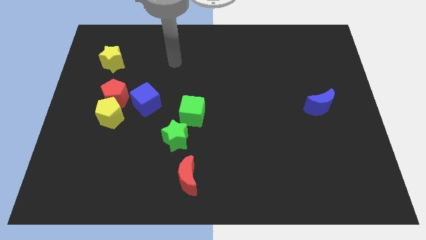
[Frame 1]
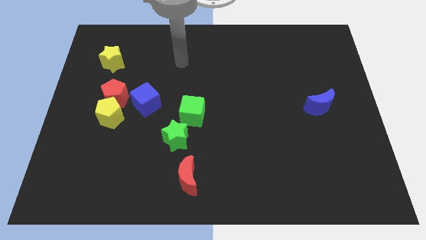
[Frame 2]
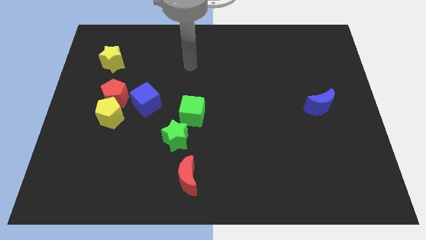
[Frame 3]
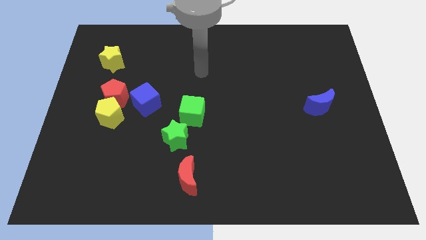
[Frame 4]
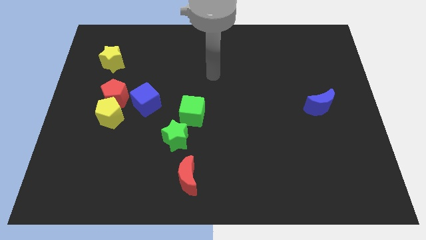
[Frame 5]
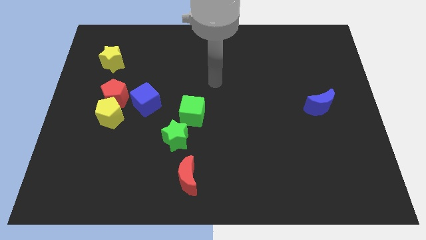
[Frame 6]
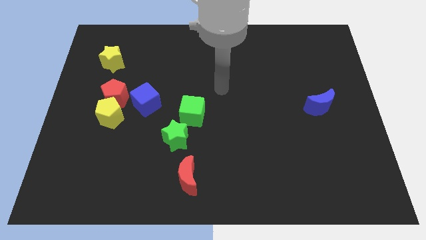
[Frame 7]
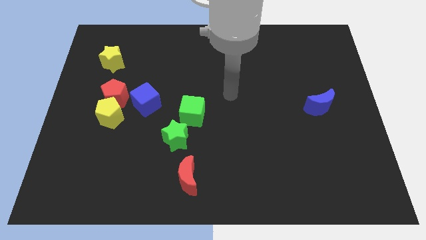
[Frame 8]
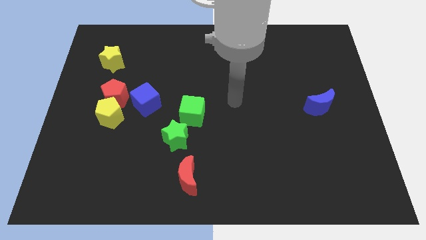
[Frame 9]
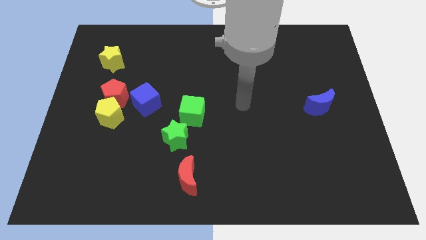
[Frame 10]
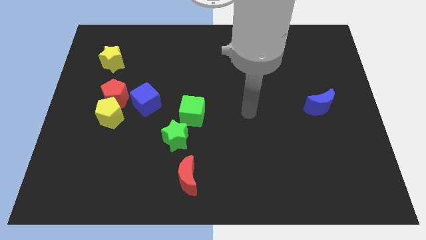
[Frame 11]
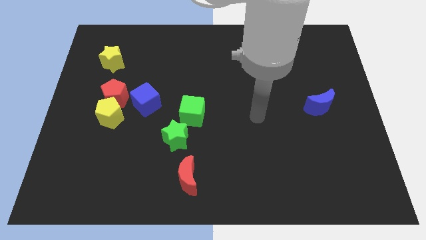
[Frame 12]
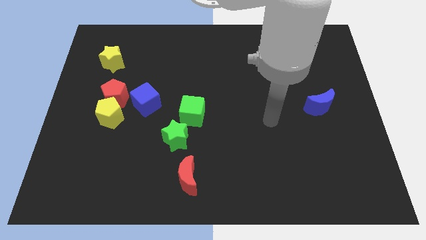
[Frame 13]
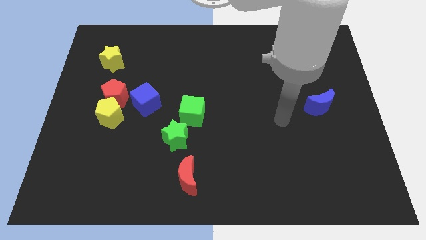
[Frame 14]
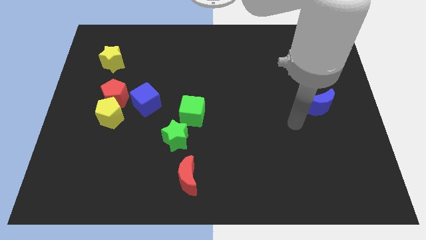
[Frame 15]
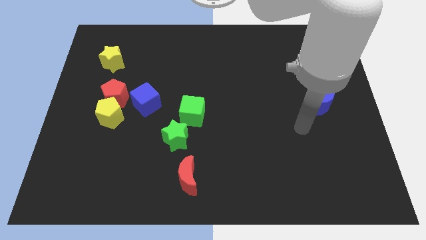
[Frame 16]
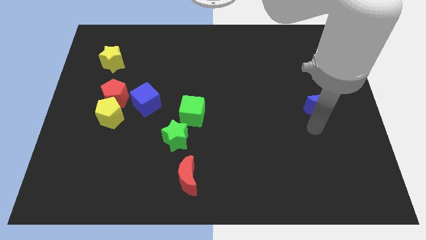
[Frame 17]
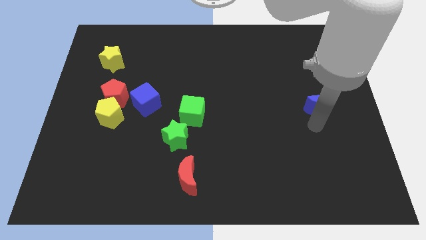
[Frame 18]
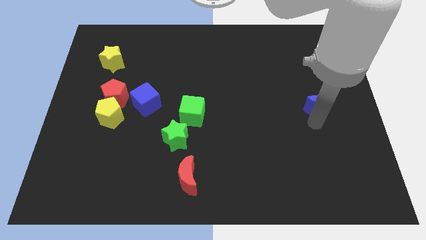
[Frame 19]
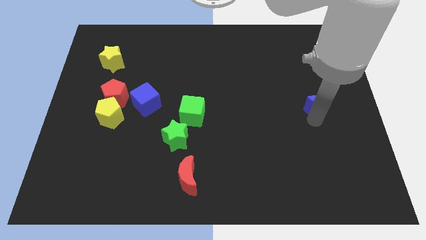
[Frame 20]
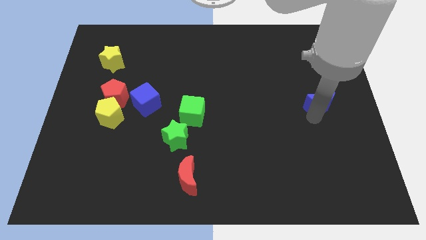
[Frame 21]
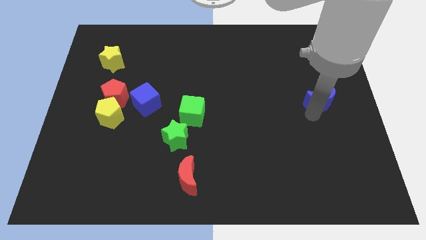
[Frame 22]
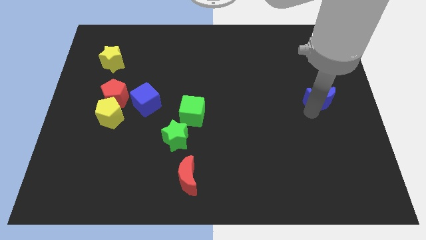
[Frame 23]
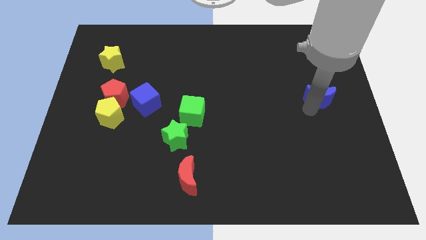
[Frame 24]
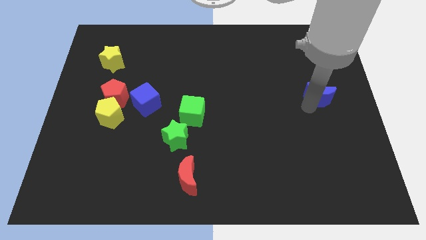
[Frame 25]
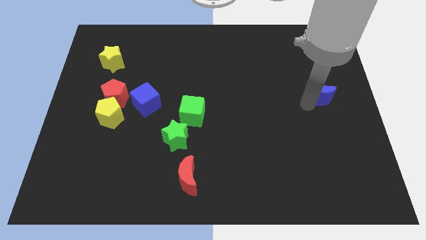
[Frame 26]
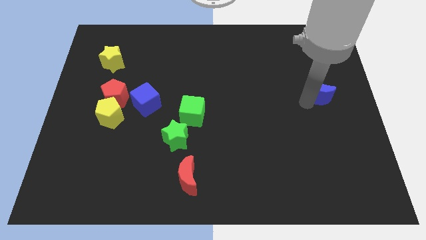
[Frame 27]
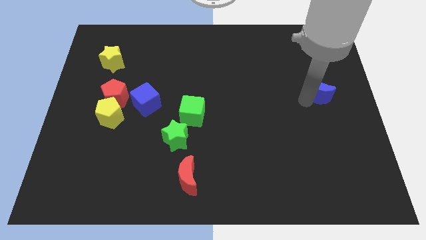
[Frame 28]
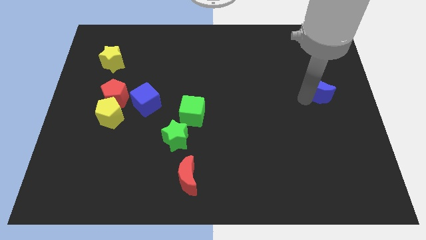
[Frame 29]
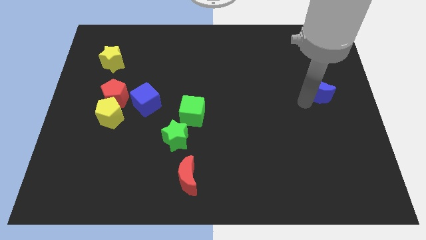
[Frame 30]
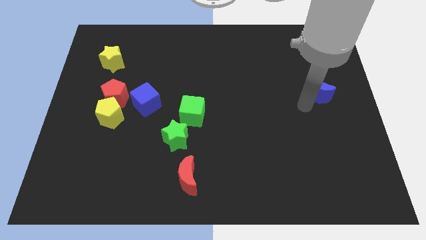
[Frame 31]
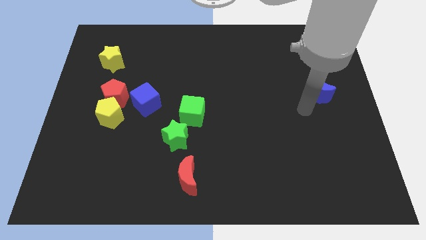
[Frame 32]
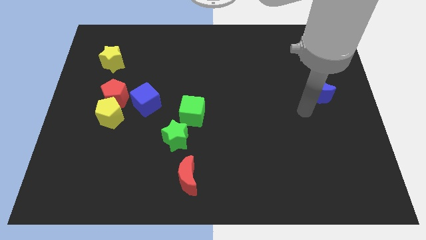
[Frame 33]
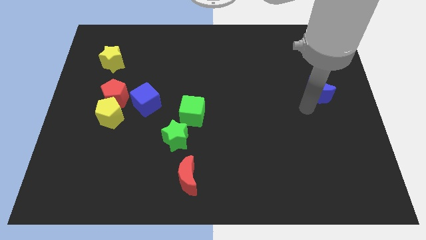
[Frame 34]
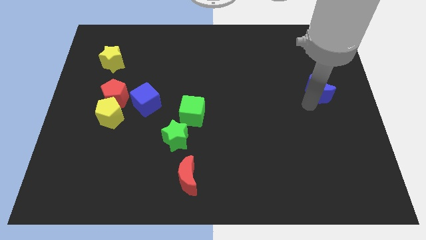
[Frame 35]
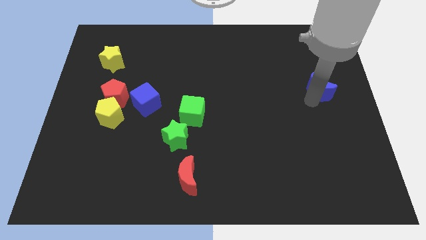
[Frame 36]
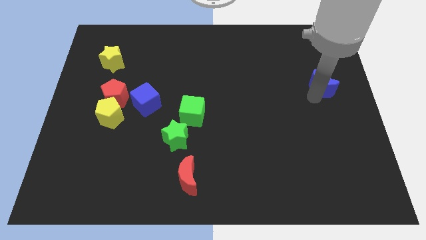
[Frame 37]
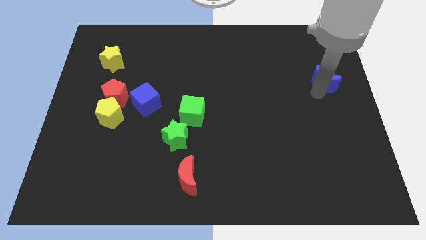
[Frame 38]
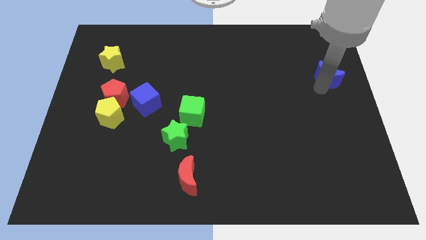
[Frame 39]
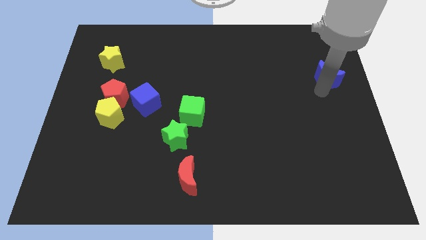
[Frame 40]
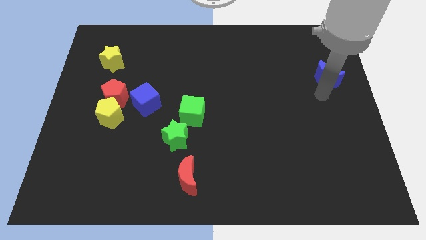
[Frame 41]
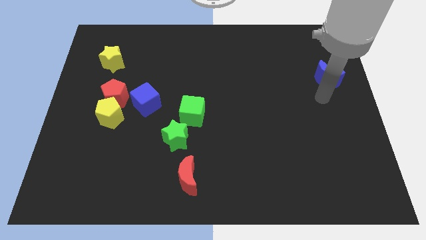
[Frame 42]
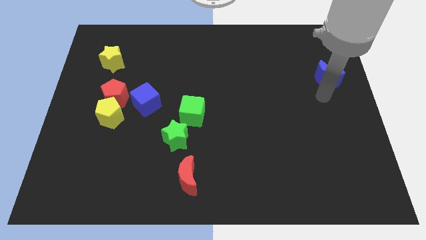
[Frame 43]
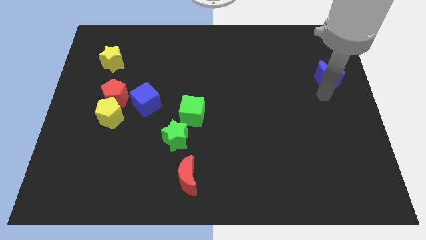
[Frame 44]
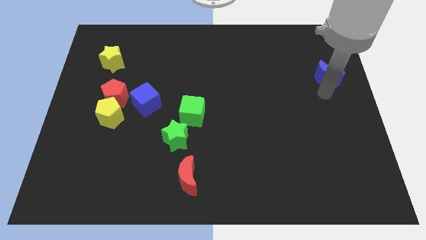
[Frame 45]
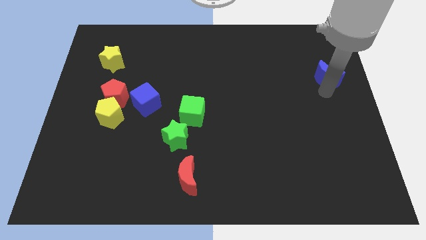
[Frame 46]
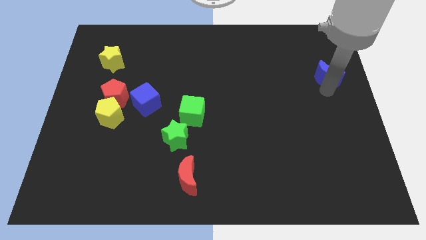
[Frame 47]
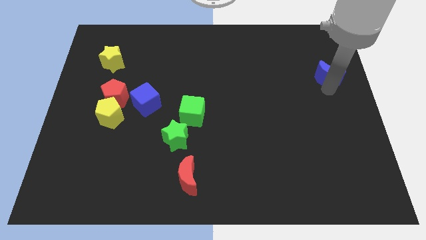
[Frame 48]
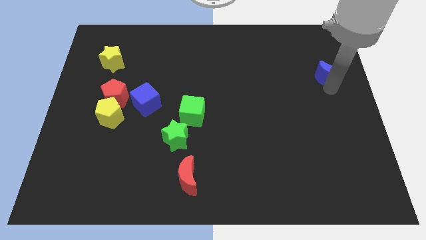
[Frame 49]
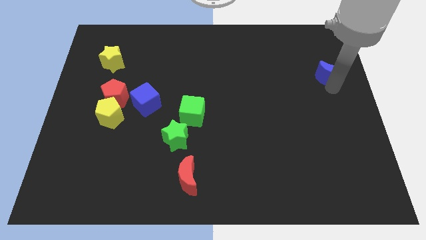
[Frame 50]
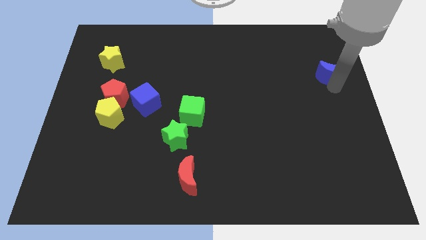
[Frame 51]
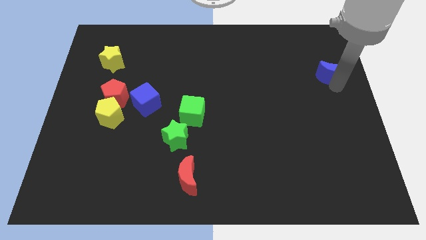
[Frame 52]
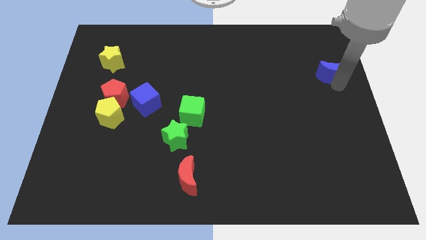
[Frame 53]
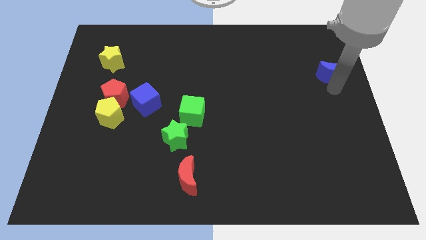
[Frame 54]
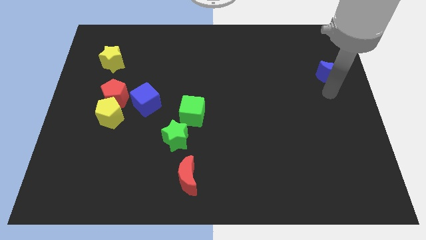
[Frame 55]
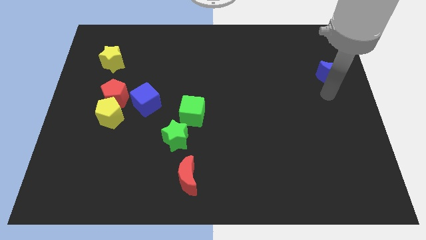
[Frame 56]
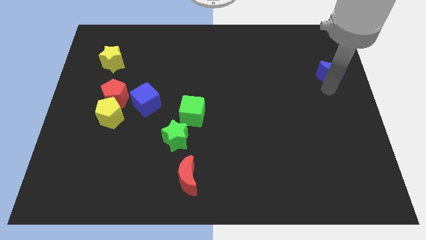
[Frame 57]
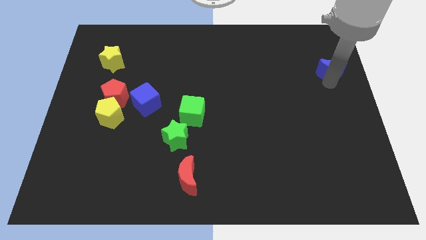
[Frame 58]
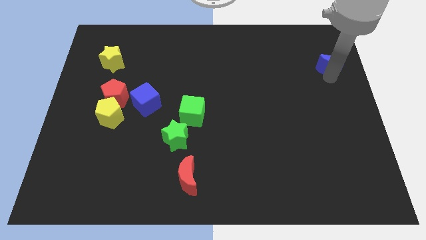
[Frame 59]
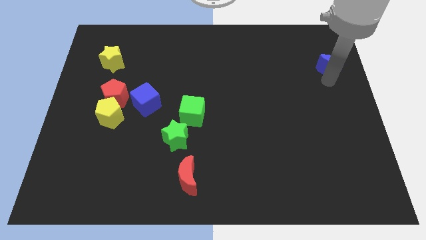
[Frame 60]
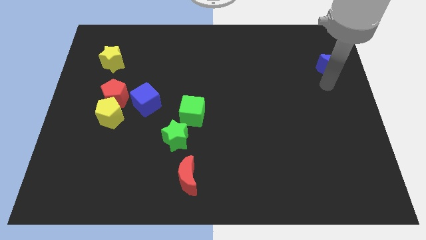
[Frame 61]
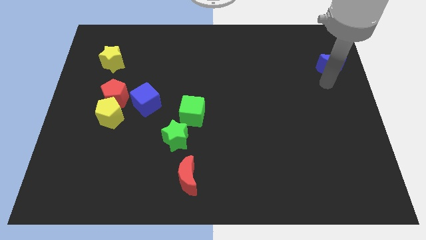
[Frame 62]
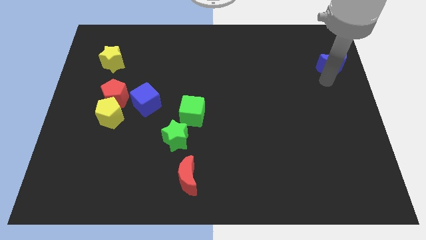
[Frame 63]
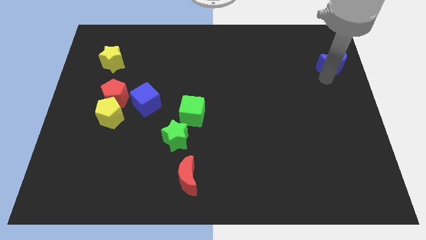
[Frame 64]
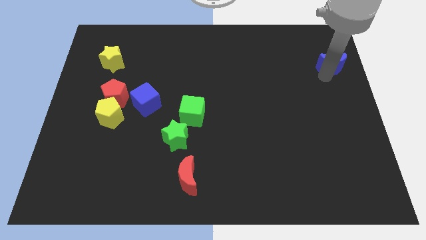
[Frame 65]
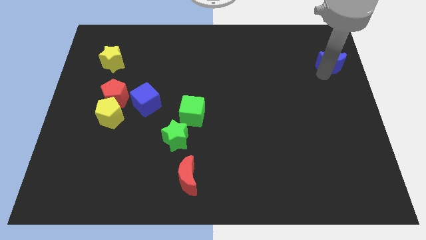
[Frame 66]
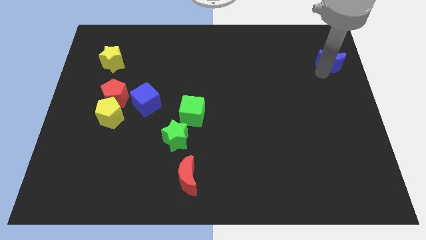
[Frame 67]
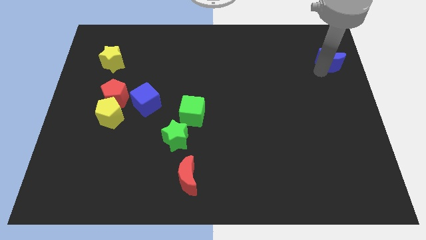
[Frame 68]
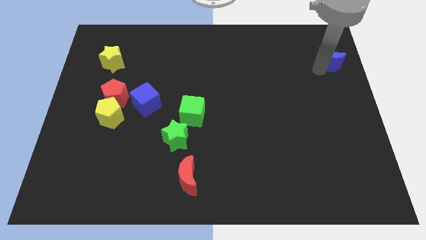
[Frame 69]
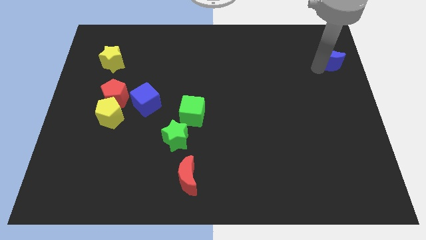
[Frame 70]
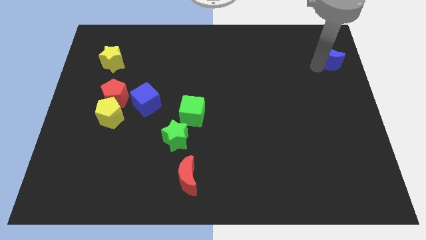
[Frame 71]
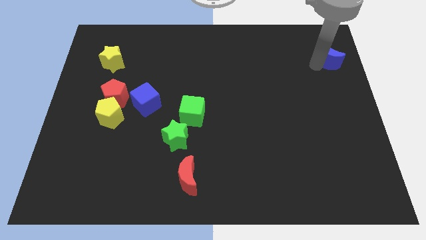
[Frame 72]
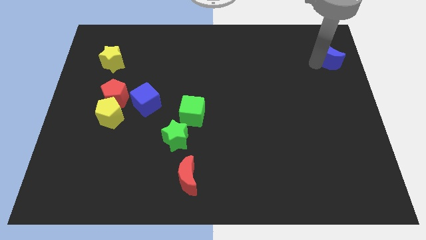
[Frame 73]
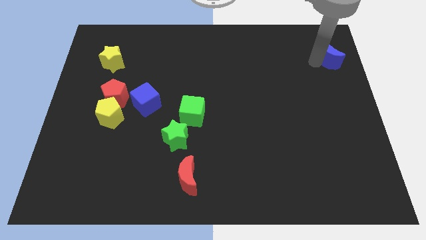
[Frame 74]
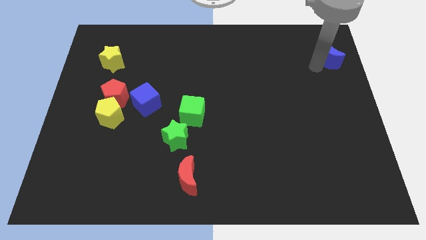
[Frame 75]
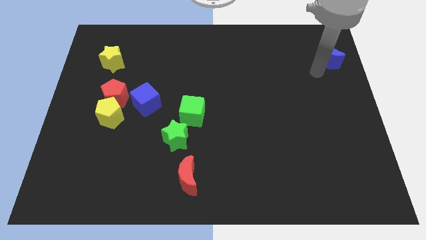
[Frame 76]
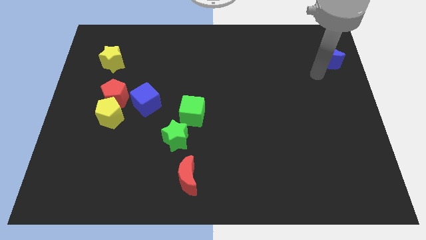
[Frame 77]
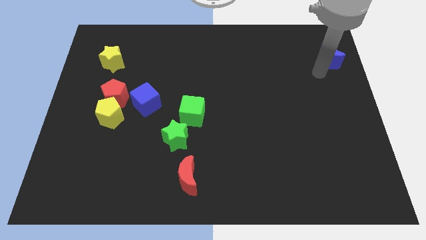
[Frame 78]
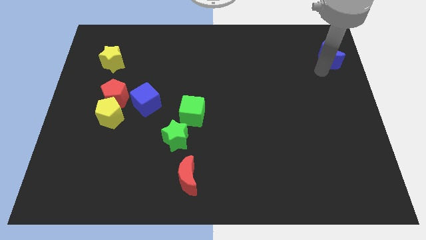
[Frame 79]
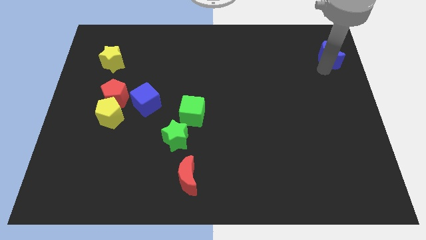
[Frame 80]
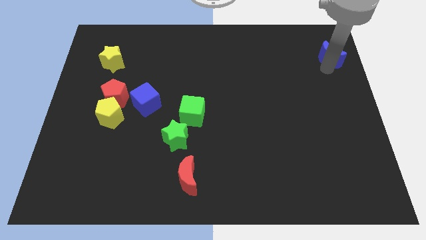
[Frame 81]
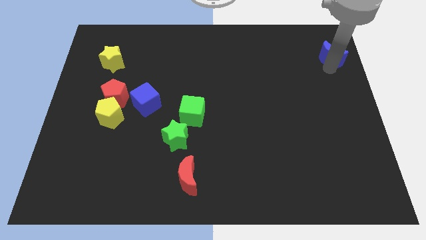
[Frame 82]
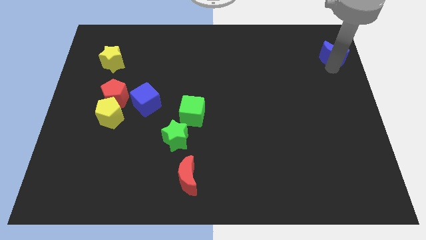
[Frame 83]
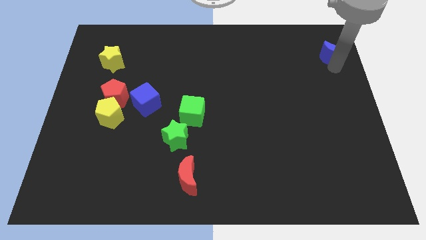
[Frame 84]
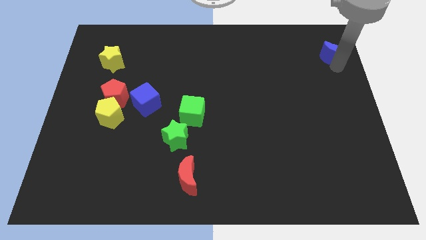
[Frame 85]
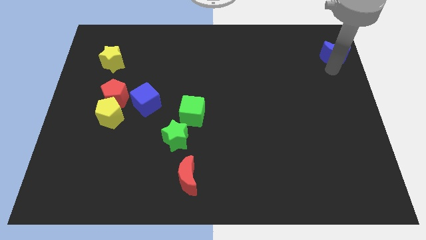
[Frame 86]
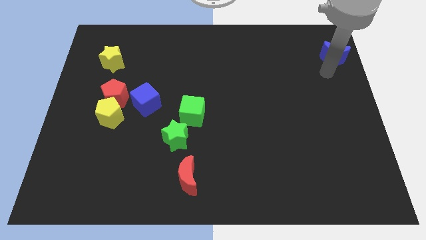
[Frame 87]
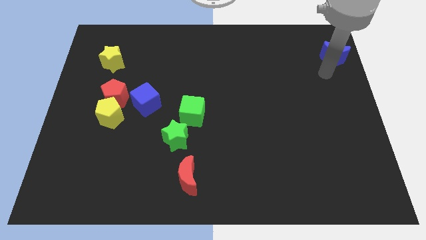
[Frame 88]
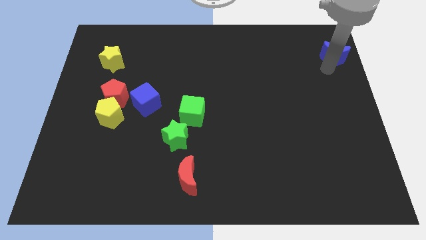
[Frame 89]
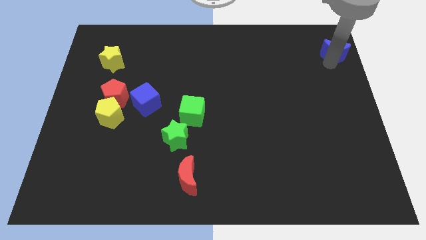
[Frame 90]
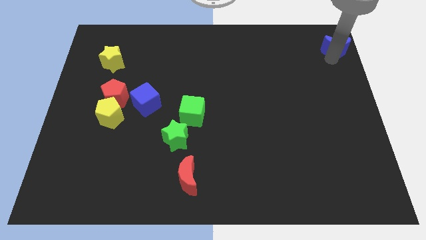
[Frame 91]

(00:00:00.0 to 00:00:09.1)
slide the blue moon to the top right
